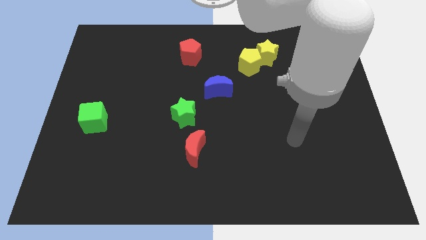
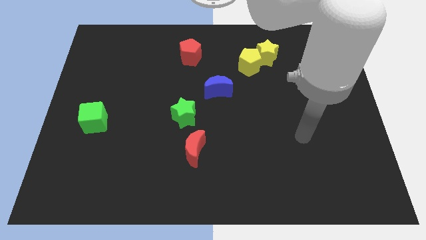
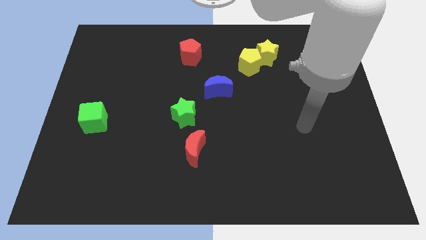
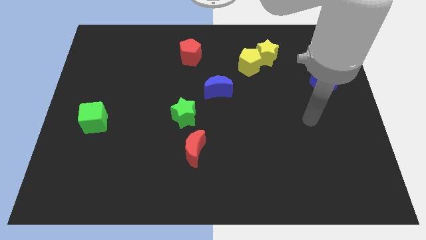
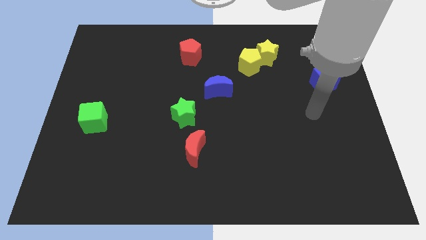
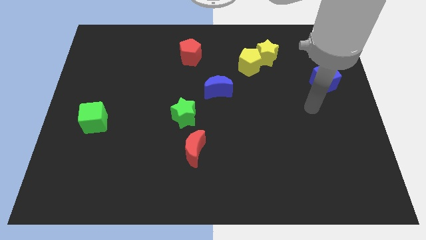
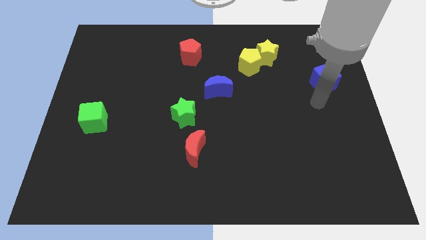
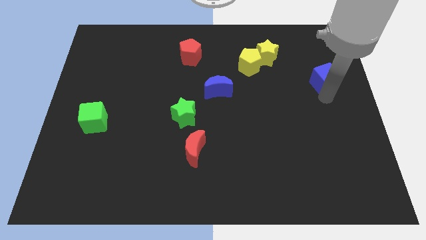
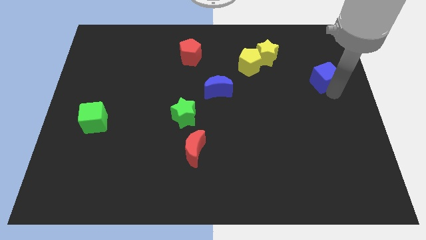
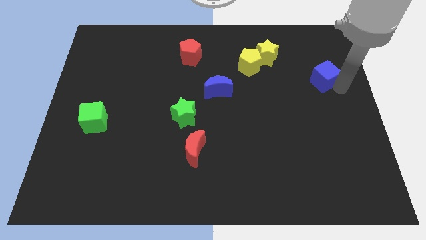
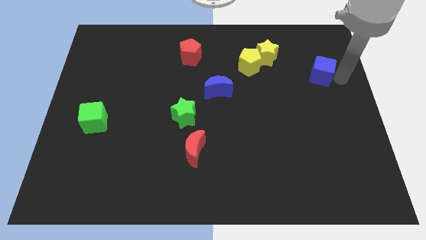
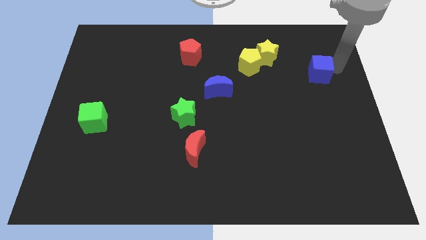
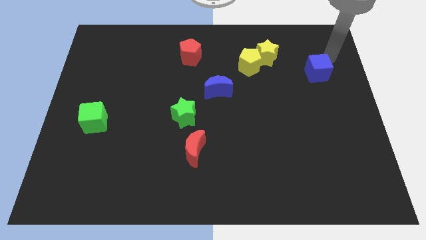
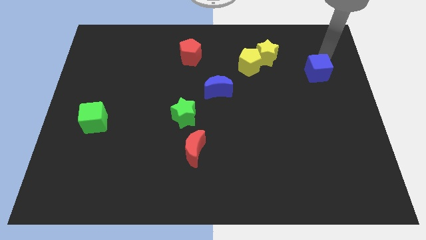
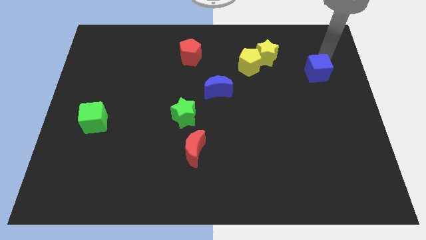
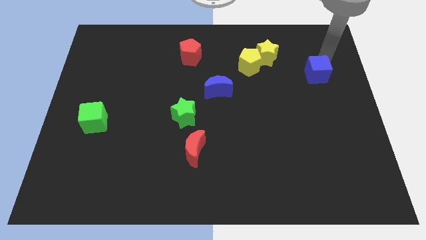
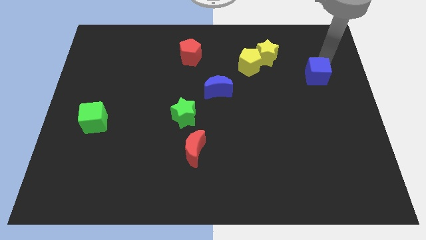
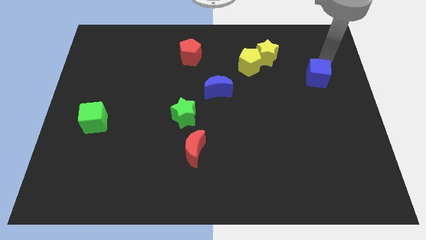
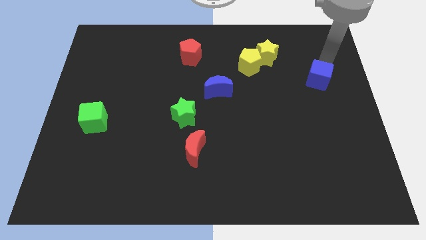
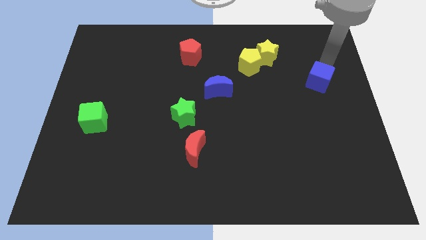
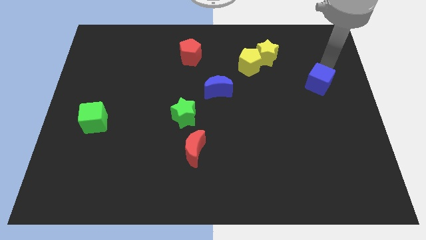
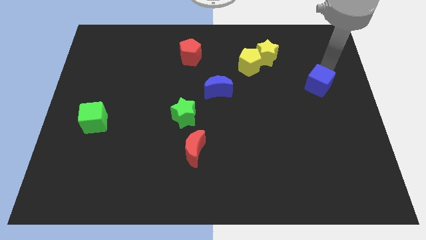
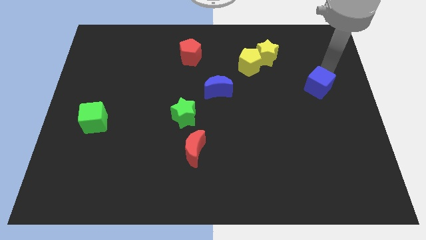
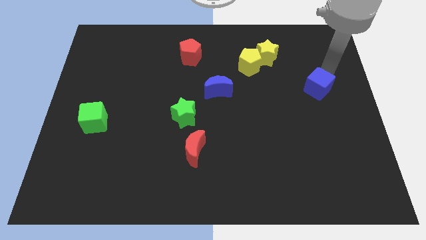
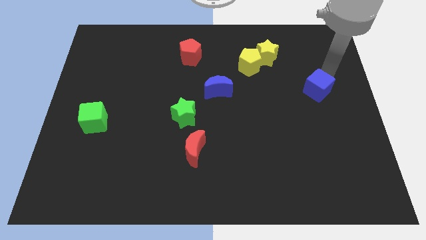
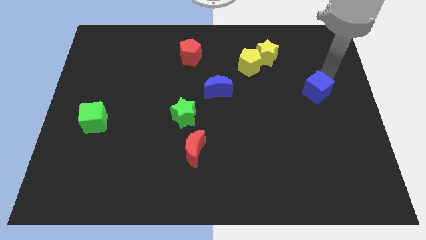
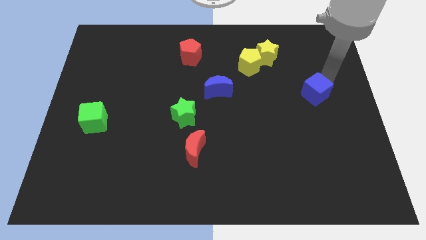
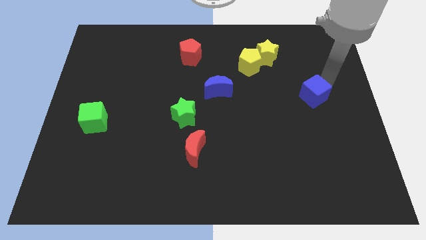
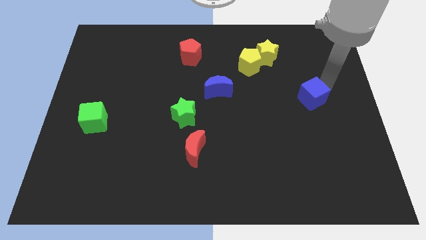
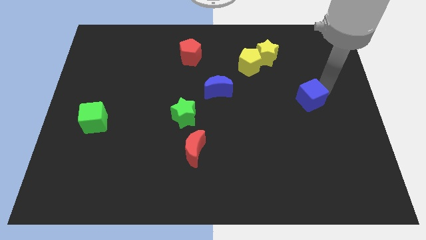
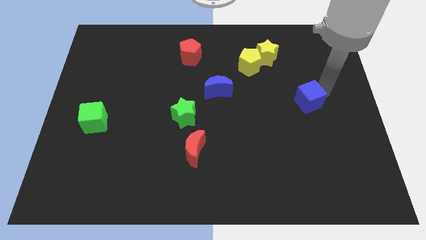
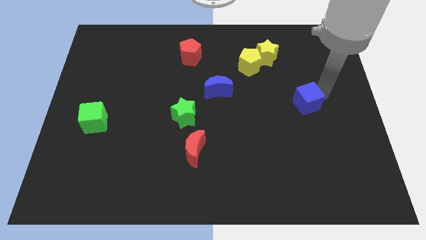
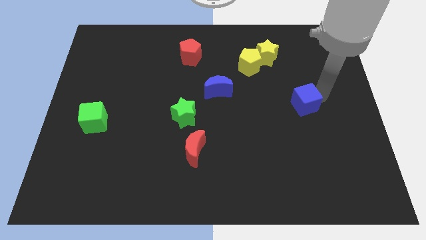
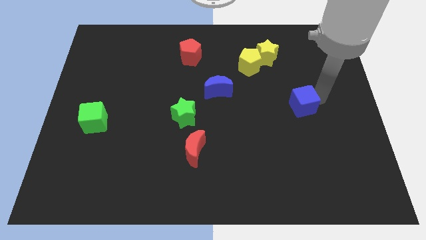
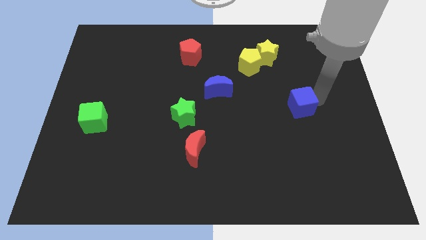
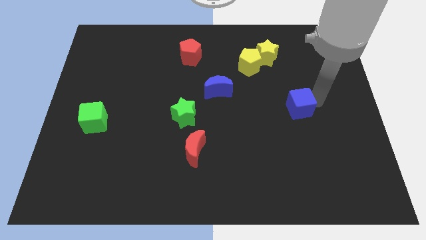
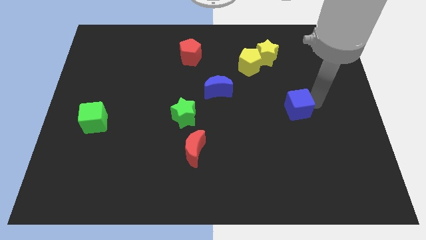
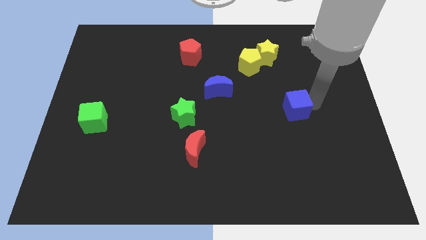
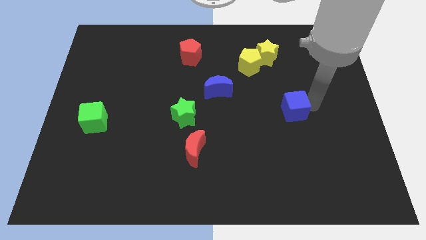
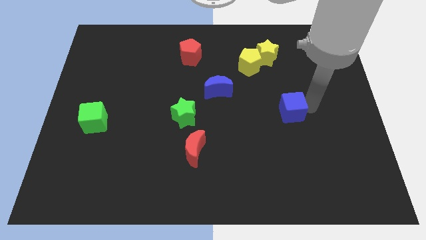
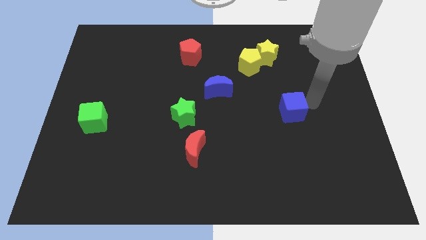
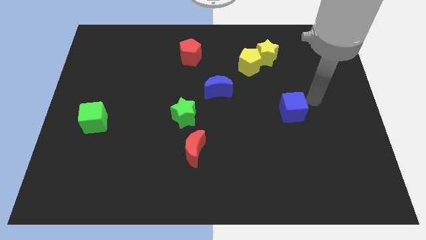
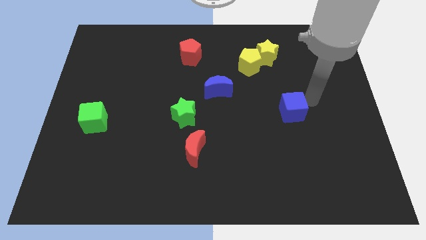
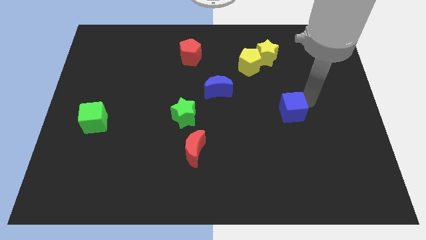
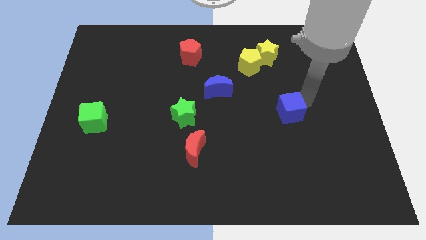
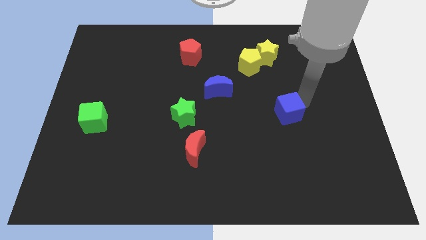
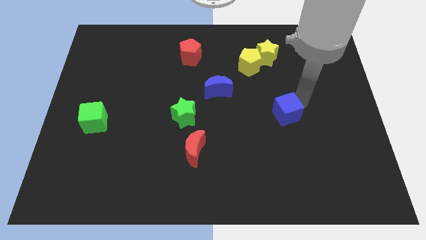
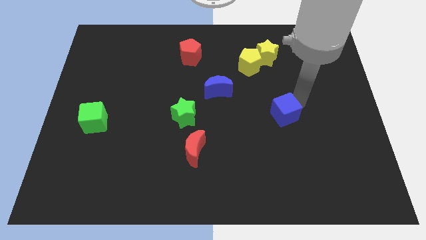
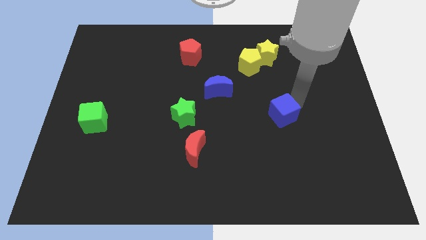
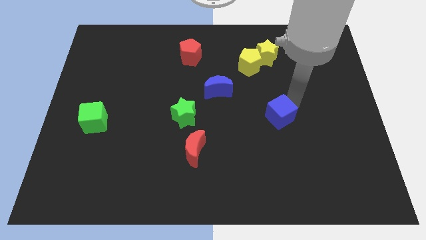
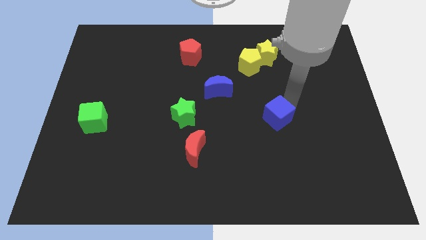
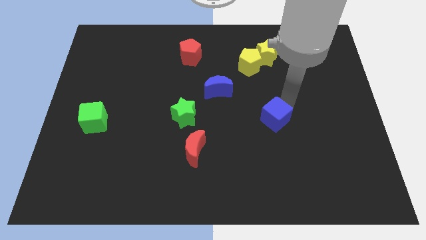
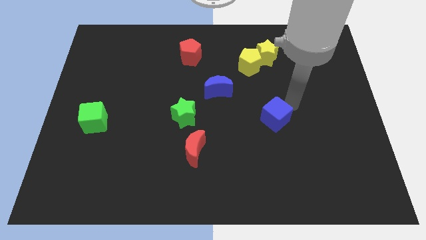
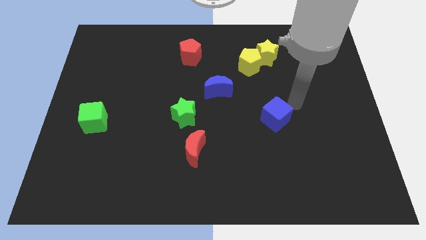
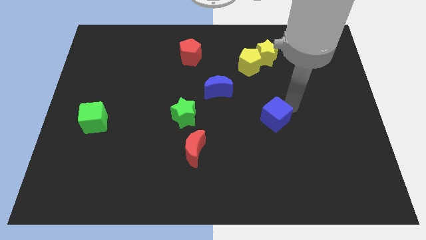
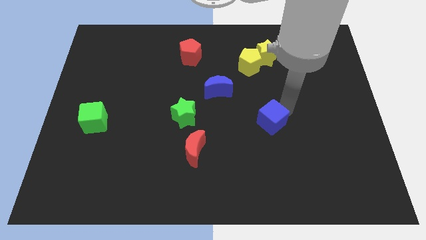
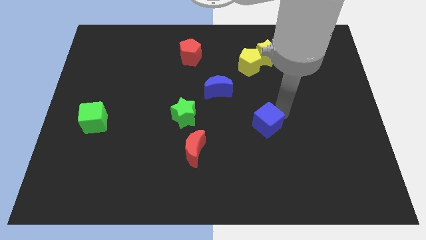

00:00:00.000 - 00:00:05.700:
move the blue cube diagonally down and left

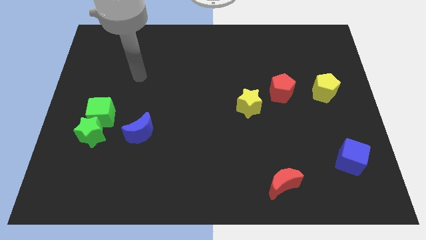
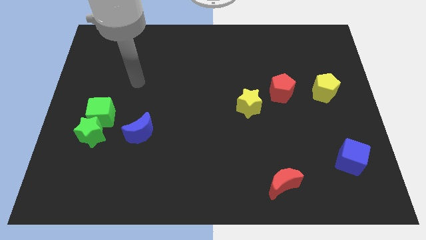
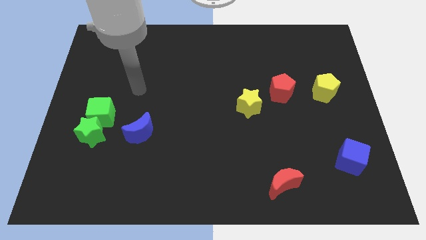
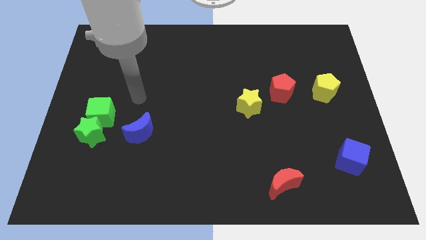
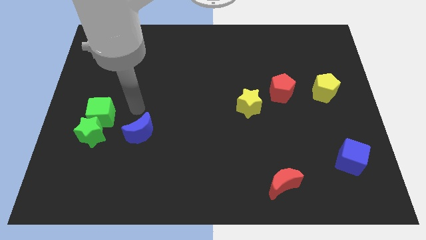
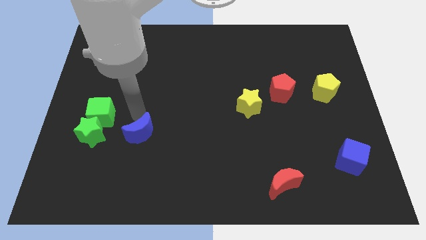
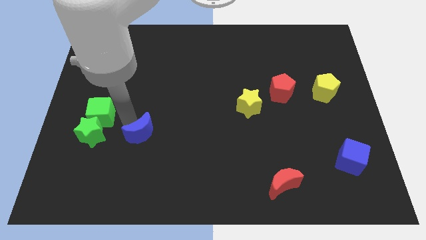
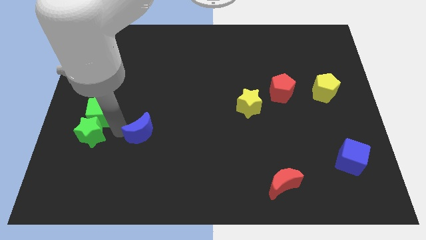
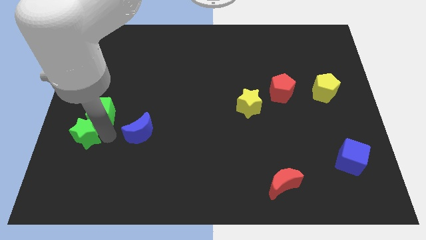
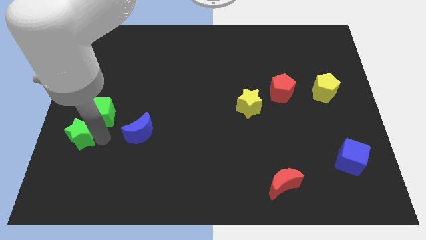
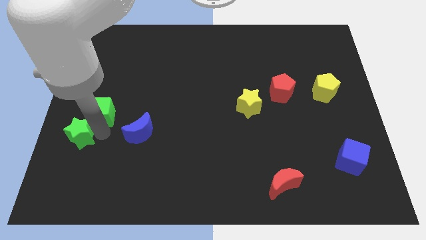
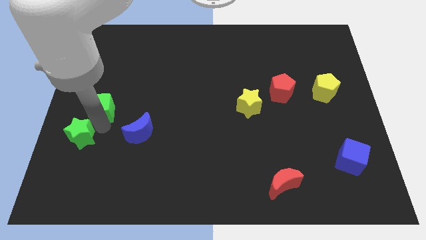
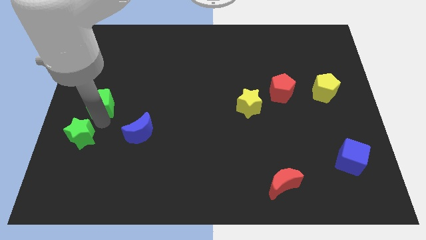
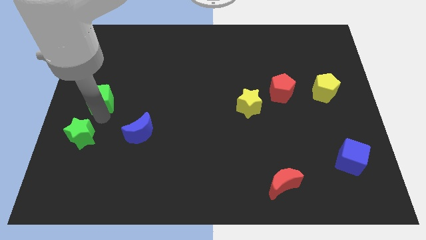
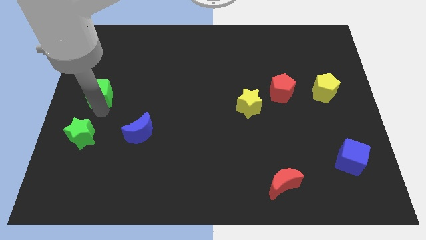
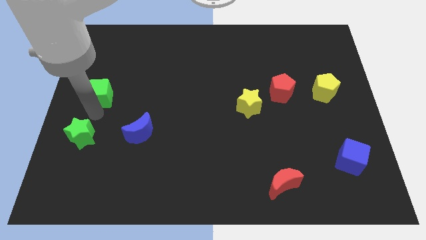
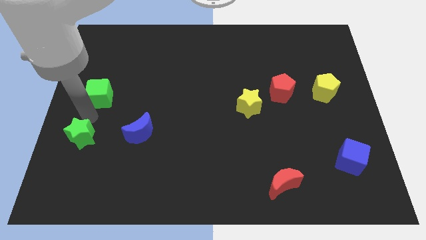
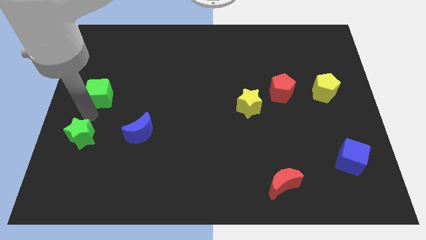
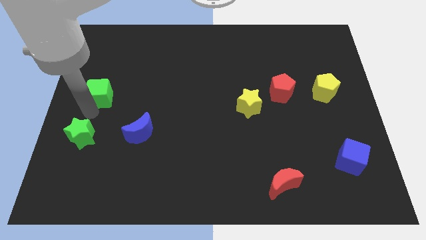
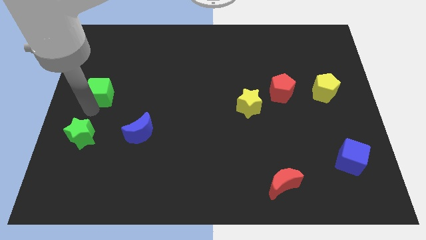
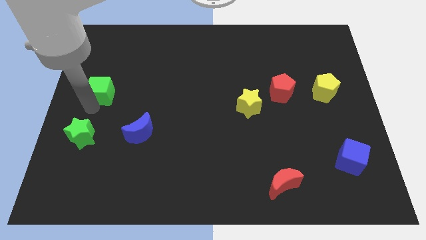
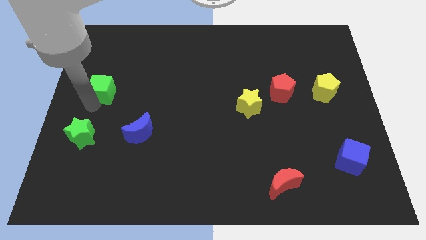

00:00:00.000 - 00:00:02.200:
push the green cube somewhat upwards

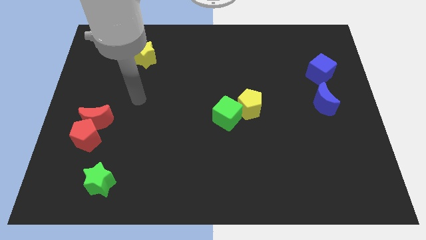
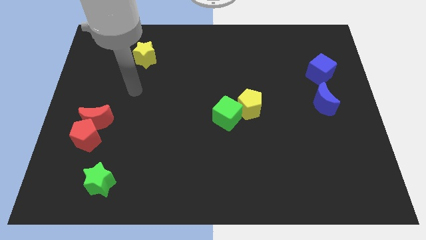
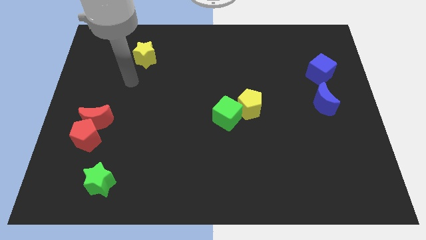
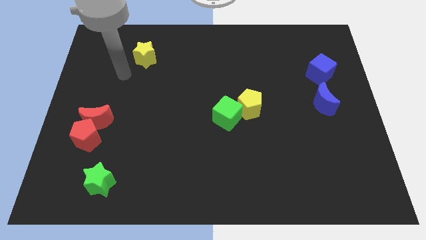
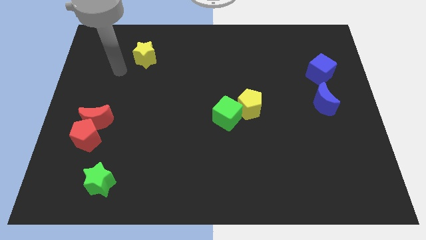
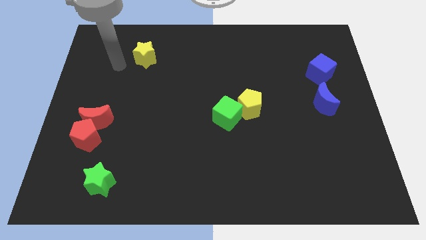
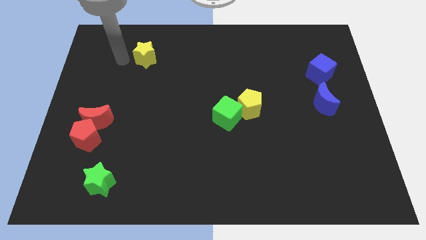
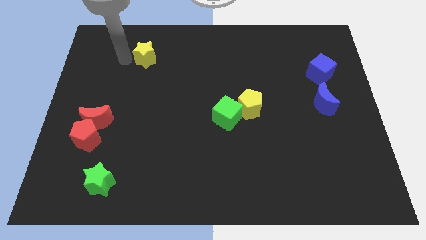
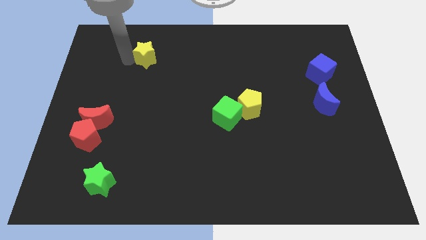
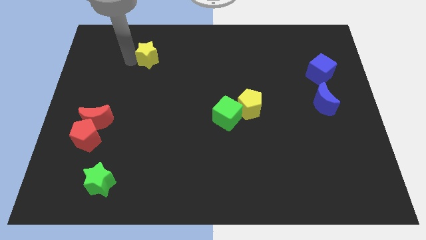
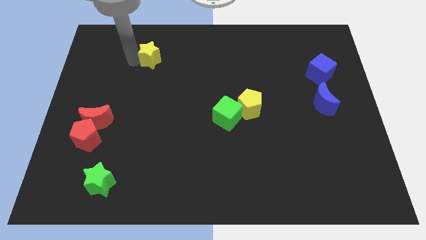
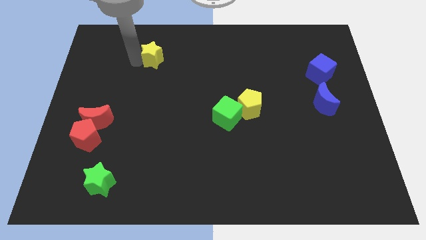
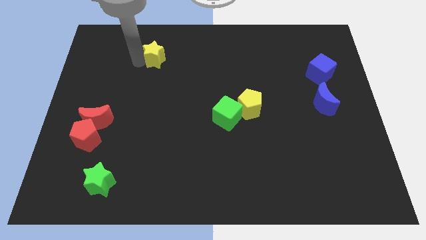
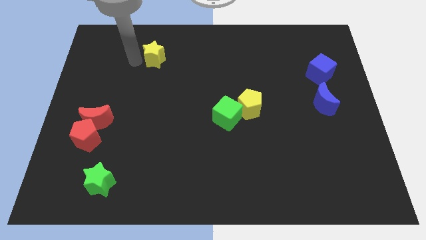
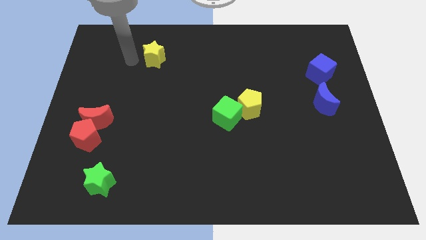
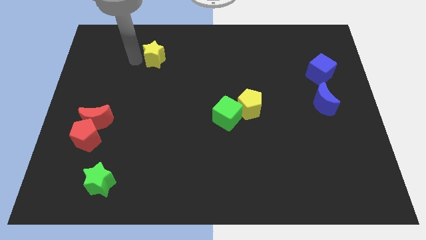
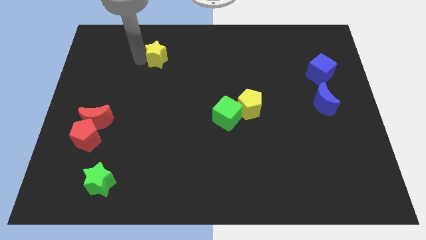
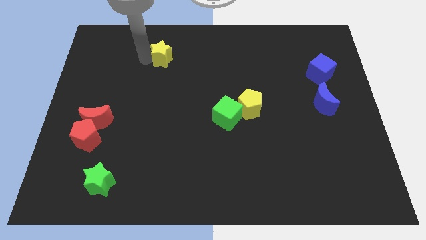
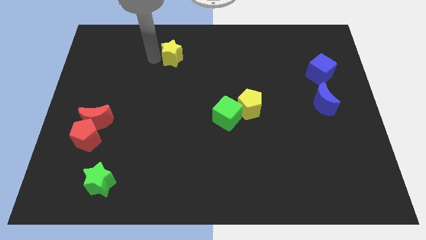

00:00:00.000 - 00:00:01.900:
slide the yellow star slightly right
